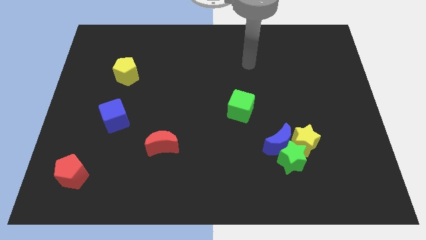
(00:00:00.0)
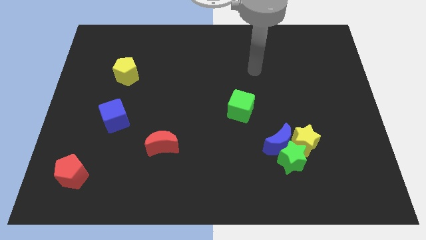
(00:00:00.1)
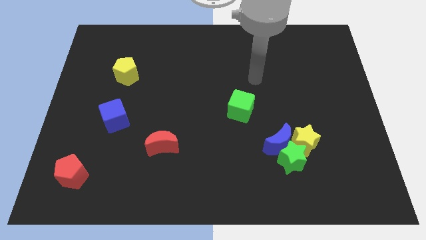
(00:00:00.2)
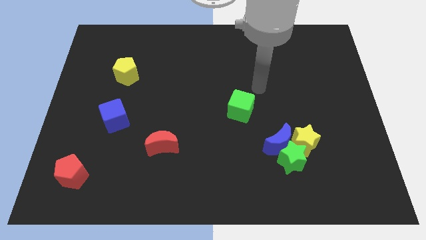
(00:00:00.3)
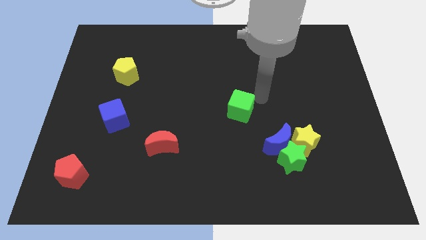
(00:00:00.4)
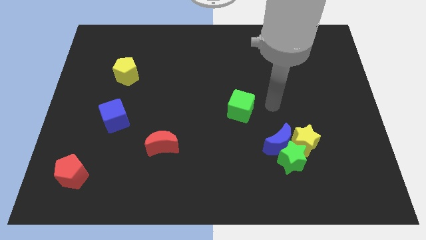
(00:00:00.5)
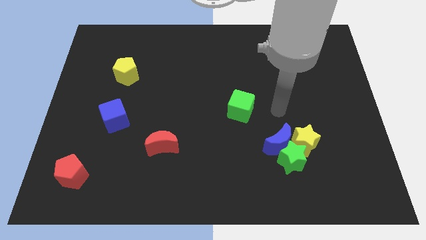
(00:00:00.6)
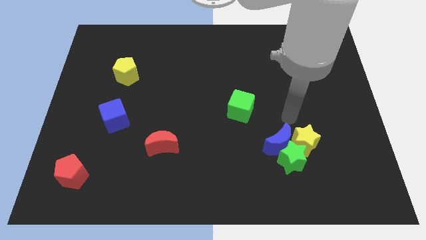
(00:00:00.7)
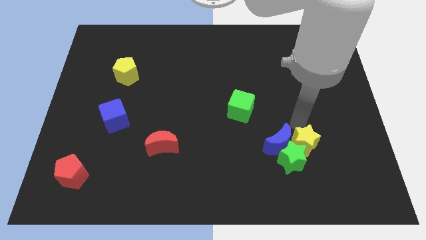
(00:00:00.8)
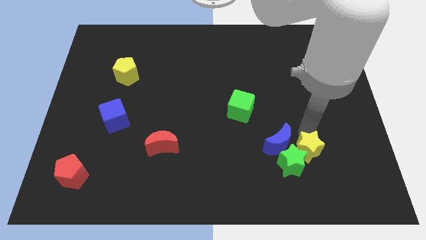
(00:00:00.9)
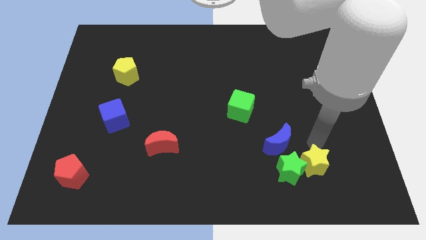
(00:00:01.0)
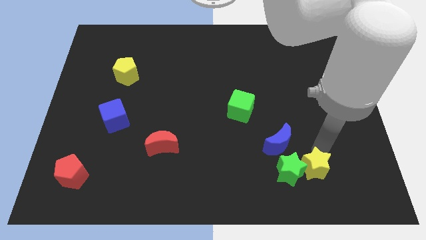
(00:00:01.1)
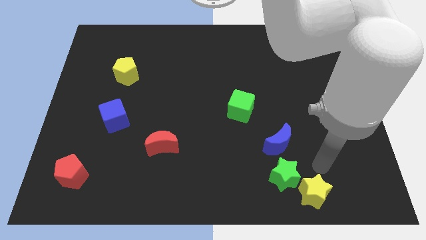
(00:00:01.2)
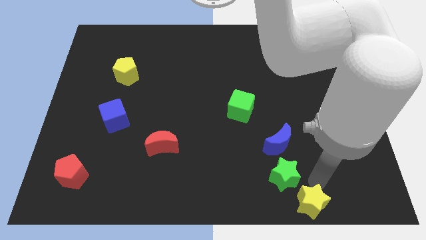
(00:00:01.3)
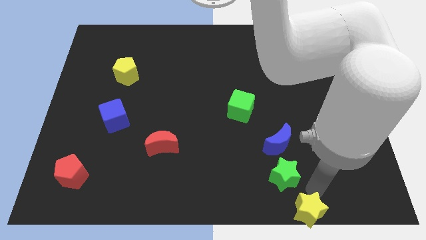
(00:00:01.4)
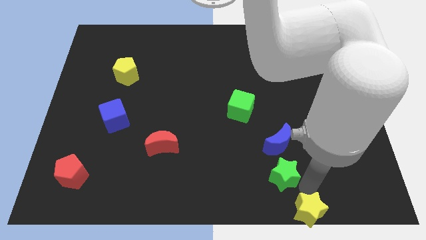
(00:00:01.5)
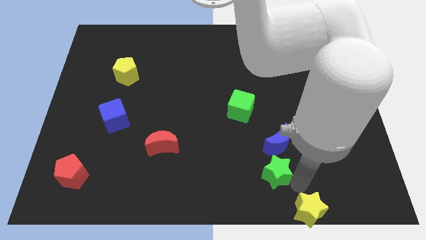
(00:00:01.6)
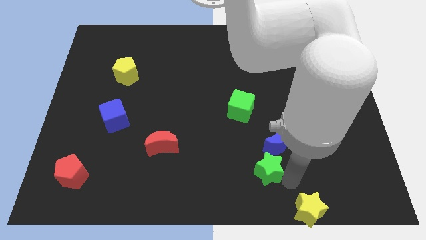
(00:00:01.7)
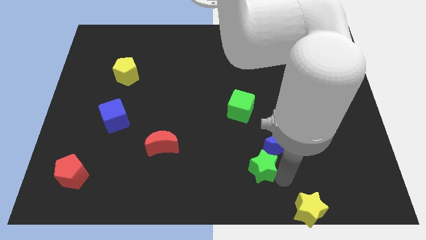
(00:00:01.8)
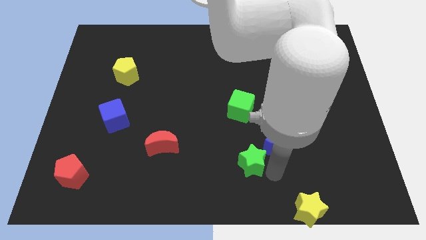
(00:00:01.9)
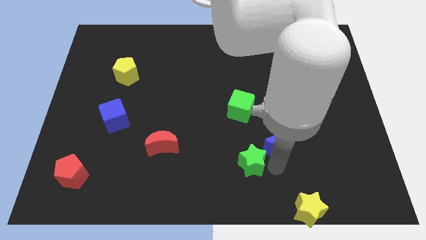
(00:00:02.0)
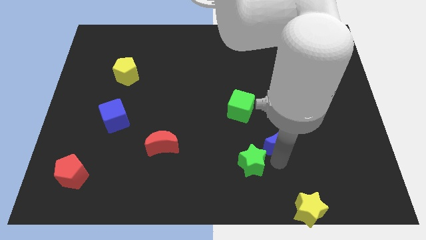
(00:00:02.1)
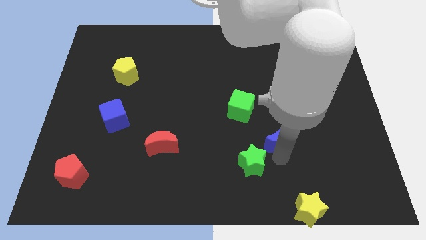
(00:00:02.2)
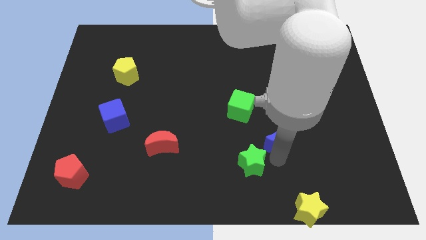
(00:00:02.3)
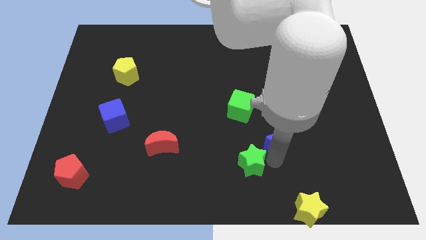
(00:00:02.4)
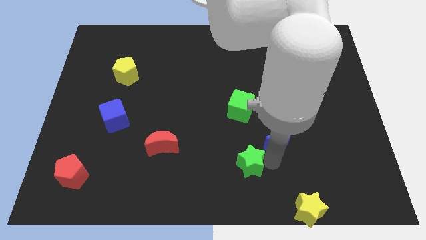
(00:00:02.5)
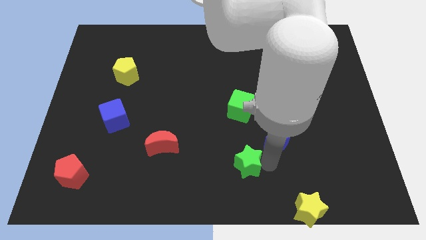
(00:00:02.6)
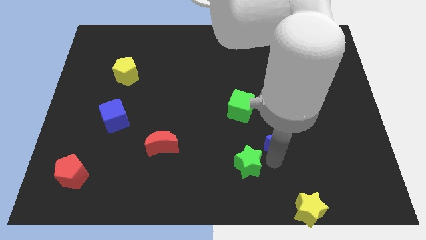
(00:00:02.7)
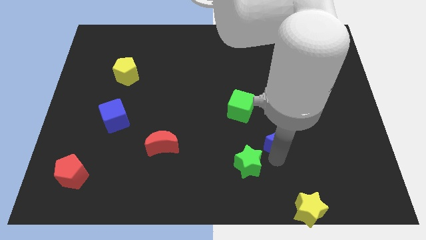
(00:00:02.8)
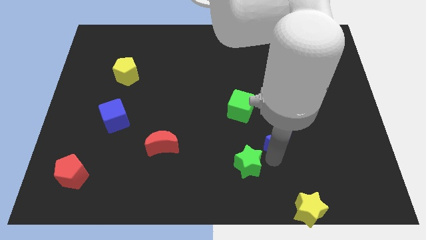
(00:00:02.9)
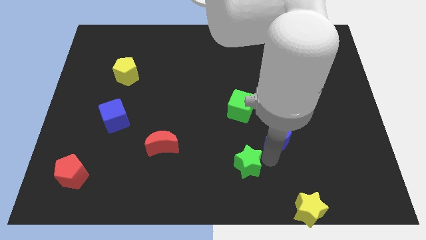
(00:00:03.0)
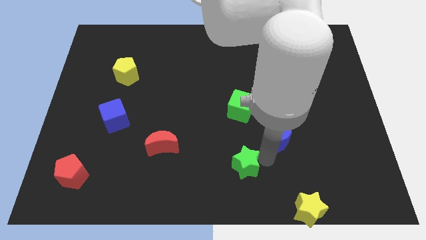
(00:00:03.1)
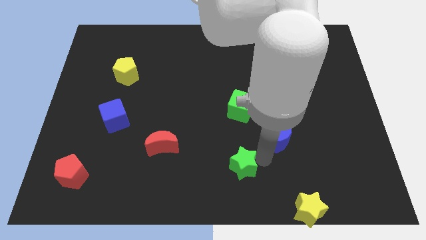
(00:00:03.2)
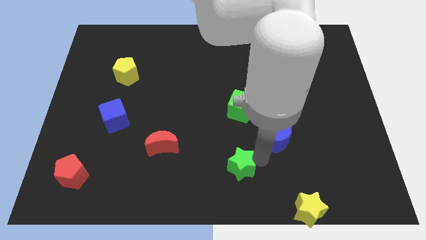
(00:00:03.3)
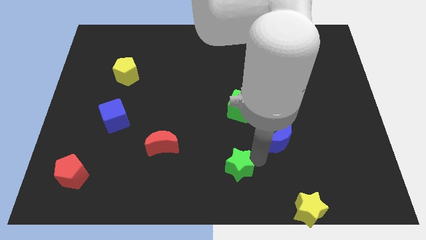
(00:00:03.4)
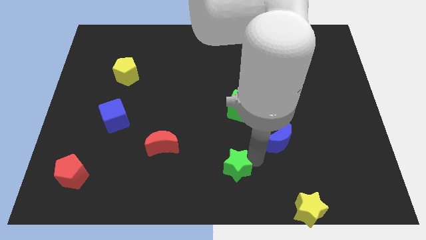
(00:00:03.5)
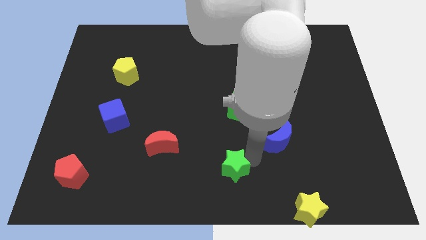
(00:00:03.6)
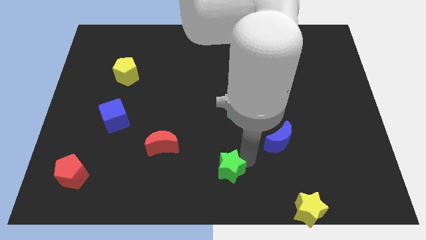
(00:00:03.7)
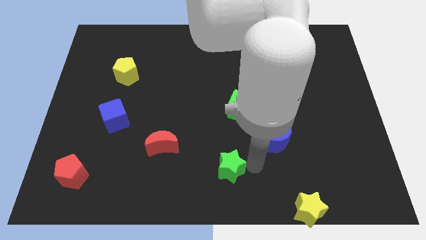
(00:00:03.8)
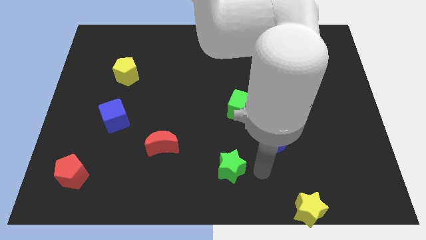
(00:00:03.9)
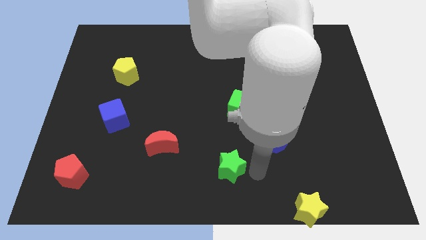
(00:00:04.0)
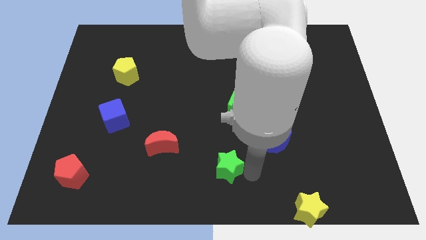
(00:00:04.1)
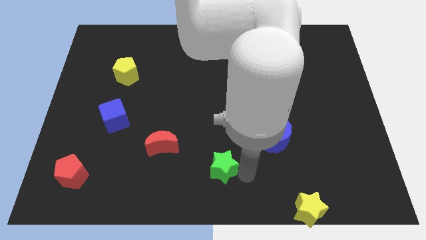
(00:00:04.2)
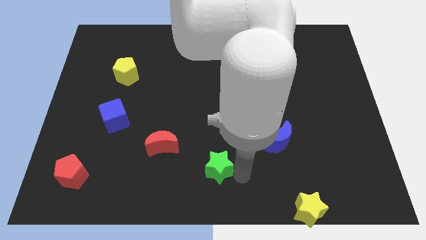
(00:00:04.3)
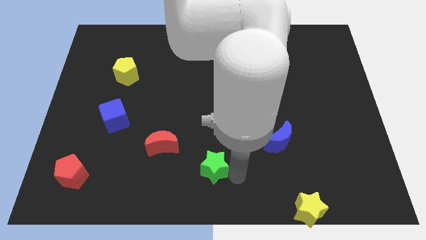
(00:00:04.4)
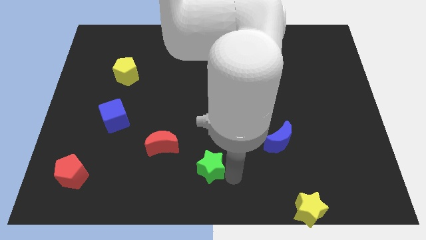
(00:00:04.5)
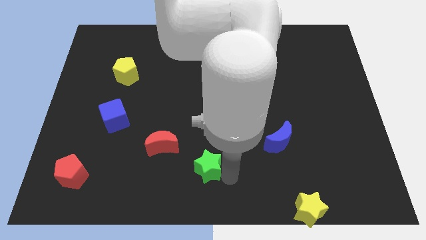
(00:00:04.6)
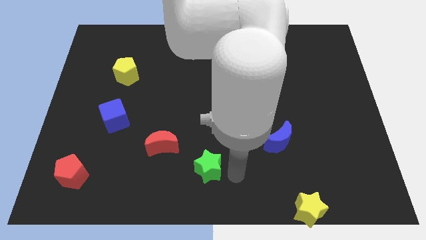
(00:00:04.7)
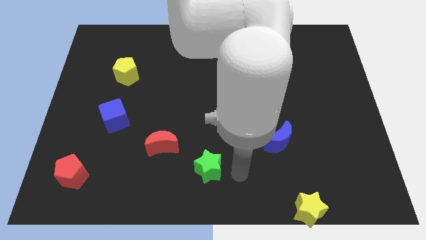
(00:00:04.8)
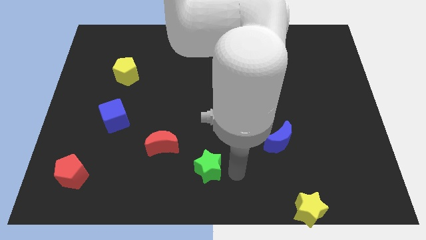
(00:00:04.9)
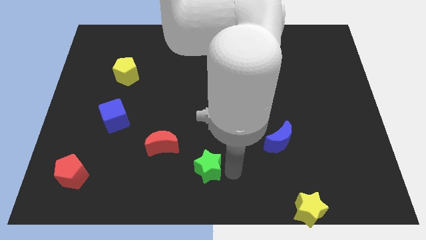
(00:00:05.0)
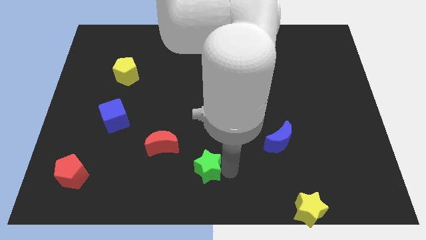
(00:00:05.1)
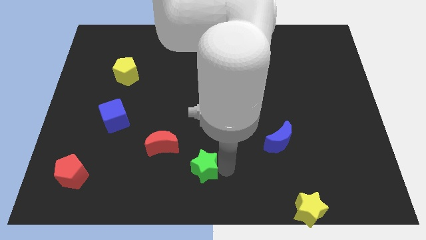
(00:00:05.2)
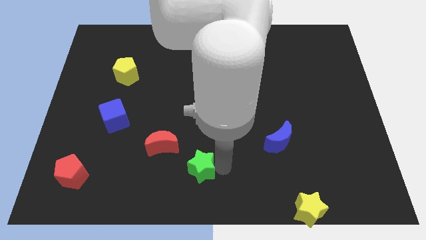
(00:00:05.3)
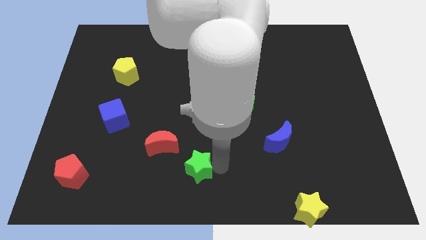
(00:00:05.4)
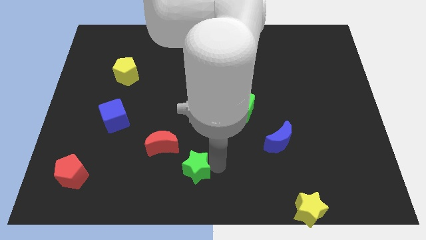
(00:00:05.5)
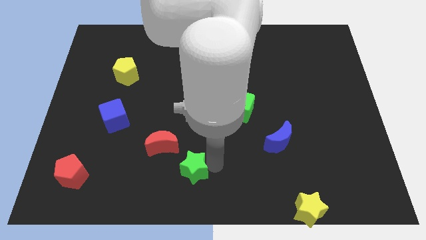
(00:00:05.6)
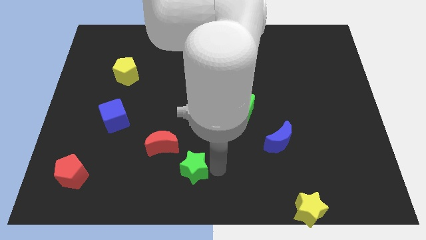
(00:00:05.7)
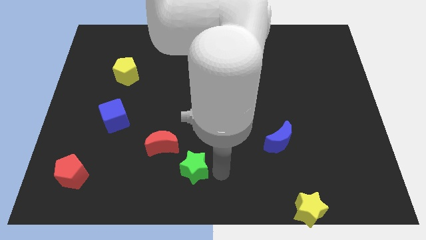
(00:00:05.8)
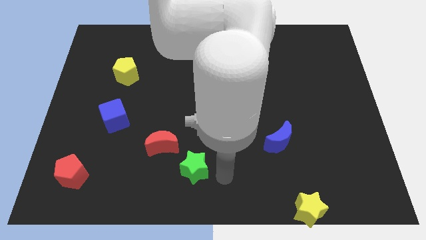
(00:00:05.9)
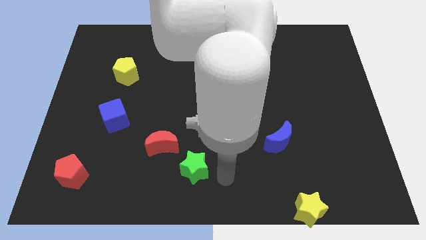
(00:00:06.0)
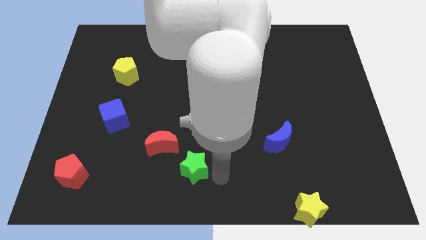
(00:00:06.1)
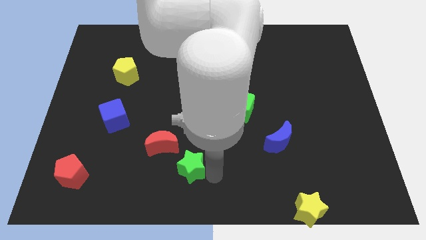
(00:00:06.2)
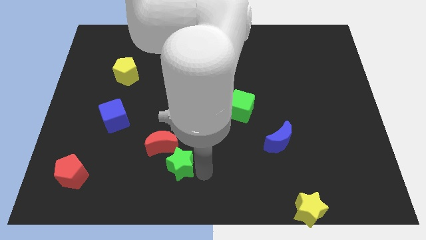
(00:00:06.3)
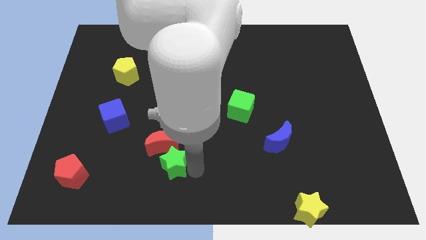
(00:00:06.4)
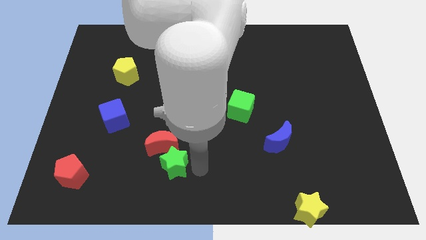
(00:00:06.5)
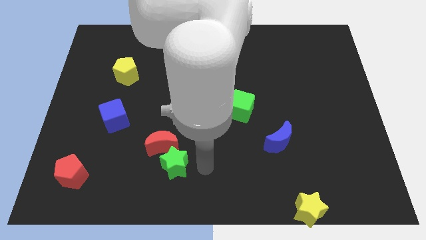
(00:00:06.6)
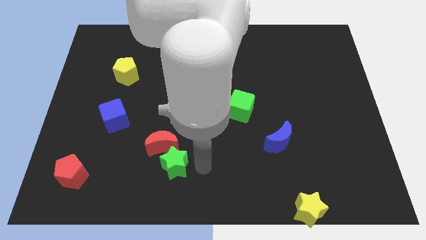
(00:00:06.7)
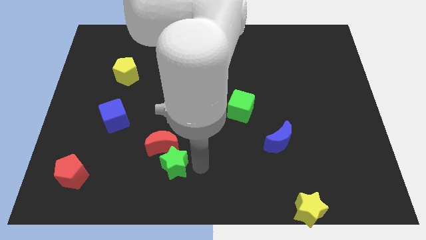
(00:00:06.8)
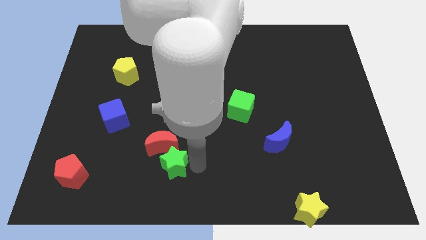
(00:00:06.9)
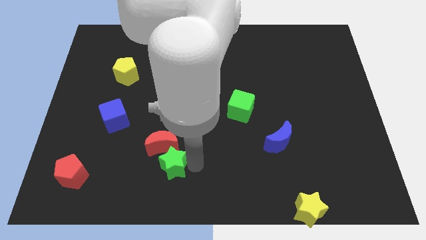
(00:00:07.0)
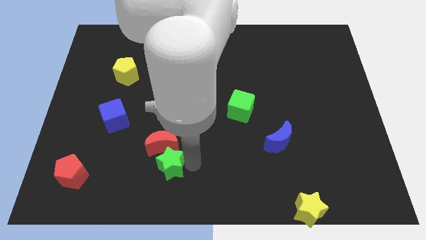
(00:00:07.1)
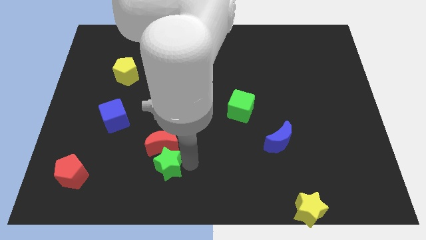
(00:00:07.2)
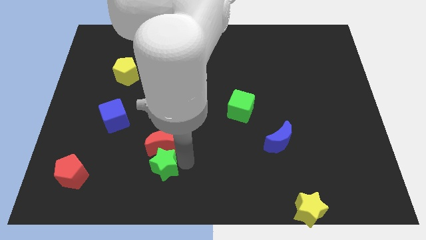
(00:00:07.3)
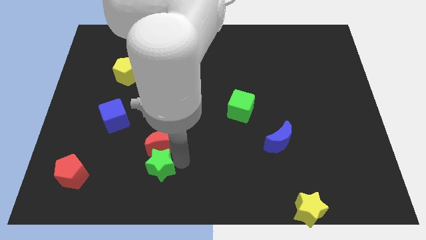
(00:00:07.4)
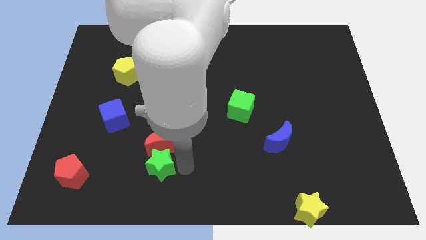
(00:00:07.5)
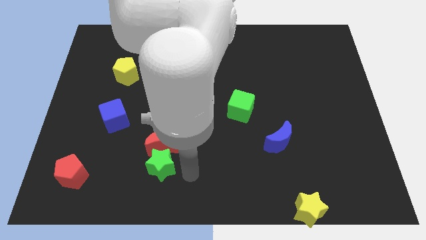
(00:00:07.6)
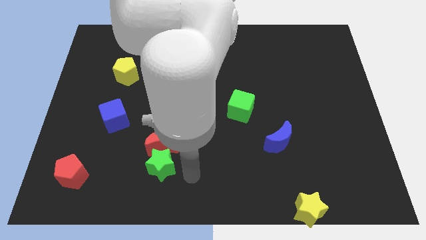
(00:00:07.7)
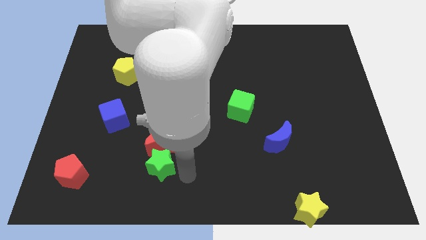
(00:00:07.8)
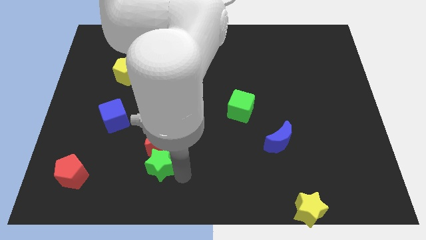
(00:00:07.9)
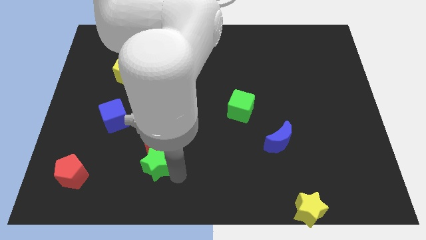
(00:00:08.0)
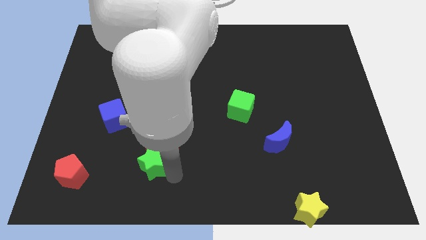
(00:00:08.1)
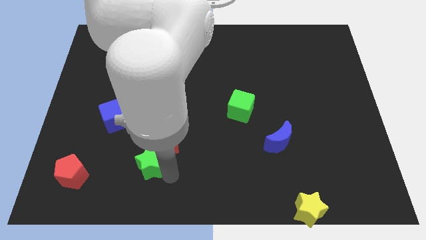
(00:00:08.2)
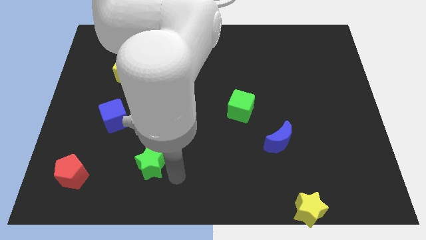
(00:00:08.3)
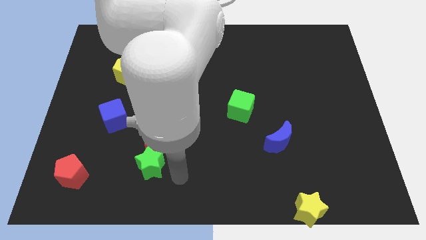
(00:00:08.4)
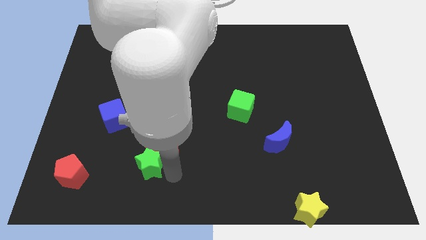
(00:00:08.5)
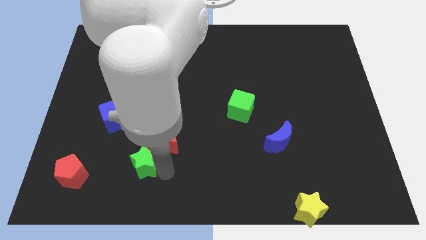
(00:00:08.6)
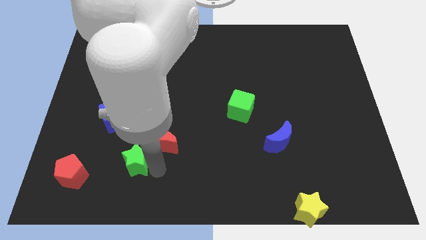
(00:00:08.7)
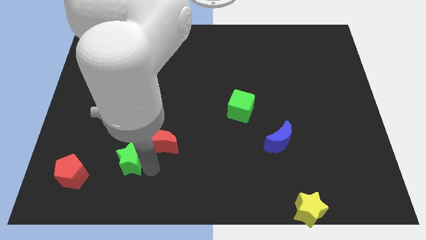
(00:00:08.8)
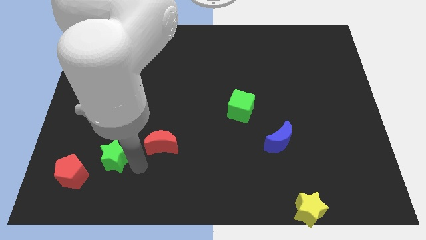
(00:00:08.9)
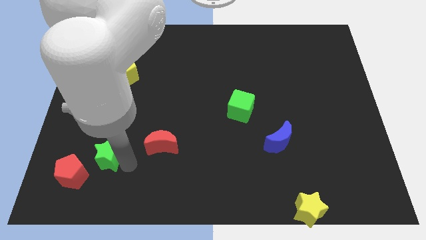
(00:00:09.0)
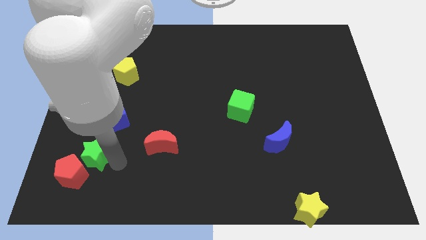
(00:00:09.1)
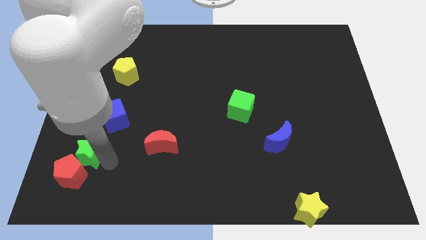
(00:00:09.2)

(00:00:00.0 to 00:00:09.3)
put the green star to the bottom left of the blue cube
